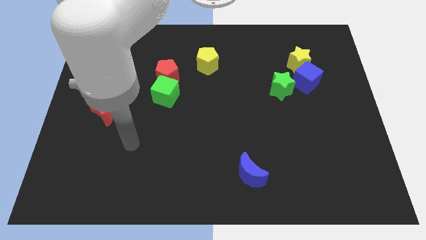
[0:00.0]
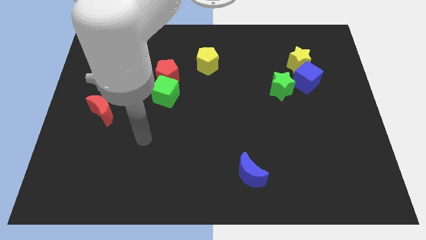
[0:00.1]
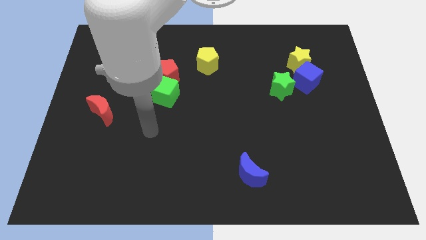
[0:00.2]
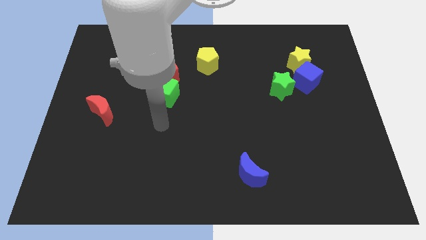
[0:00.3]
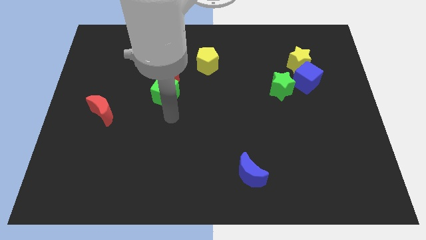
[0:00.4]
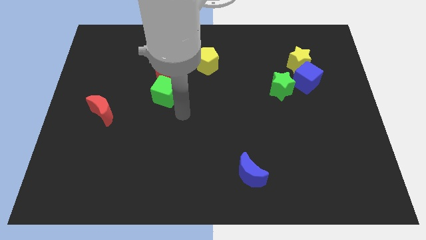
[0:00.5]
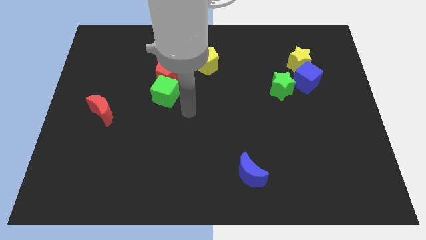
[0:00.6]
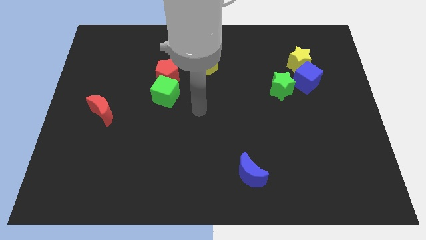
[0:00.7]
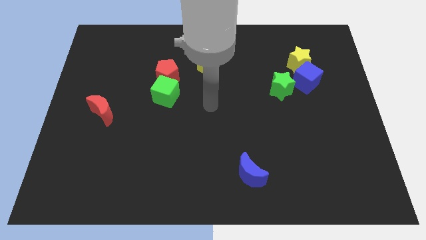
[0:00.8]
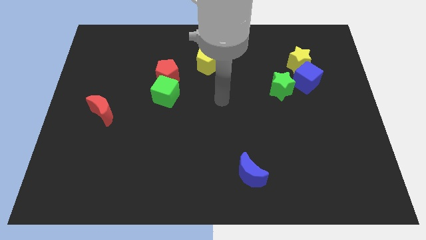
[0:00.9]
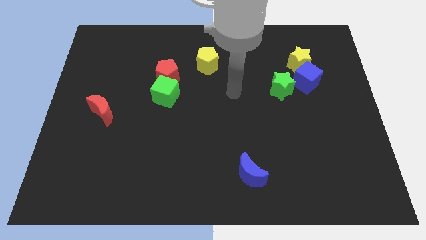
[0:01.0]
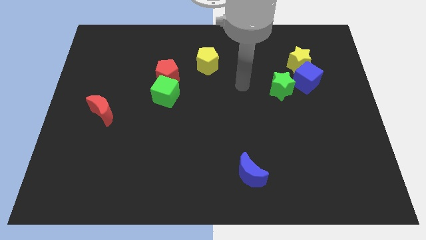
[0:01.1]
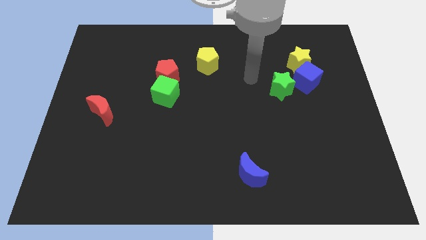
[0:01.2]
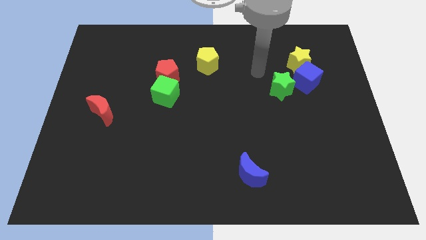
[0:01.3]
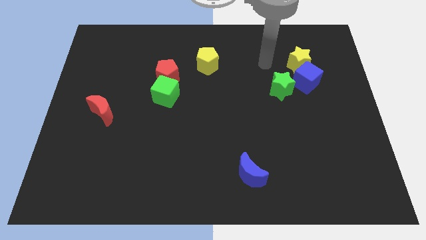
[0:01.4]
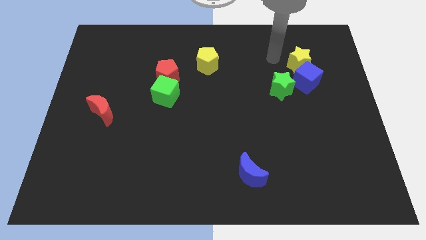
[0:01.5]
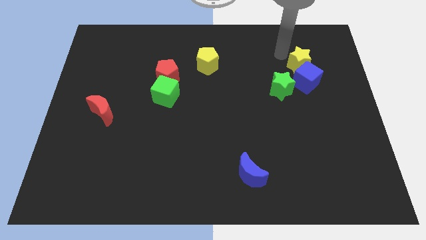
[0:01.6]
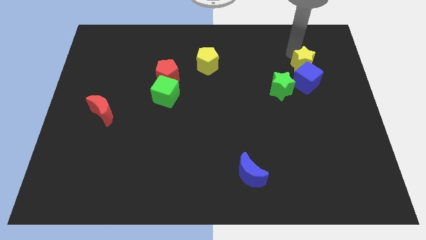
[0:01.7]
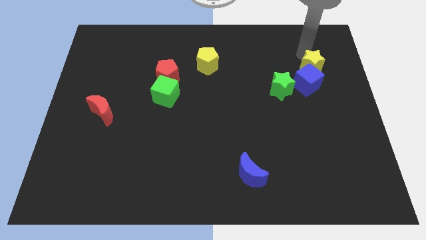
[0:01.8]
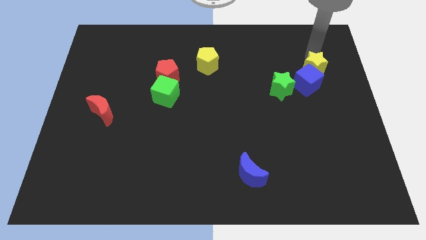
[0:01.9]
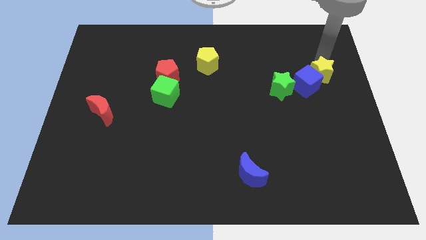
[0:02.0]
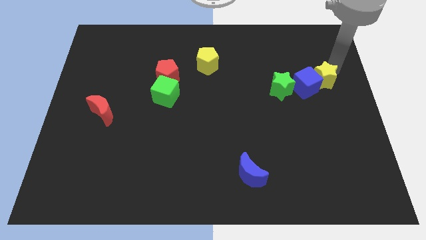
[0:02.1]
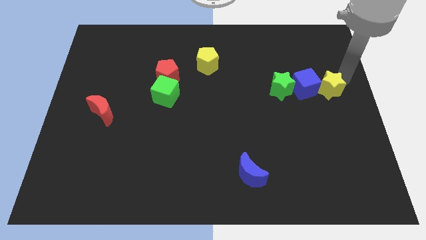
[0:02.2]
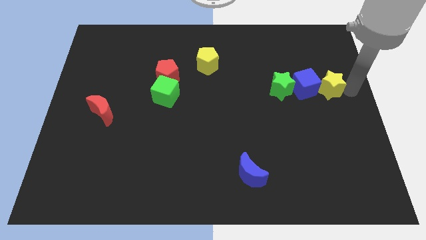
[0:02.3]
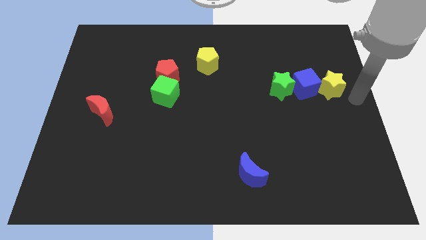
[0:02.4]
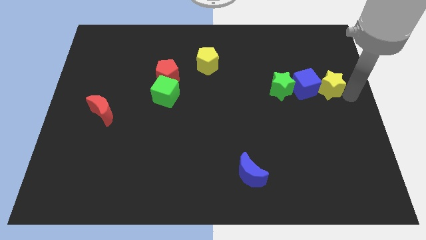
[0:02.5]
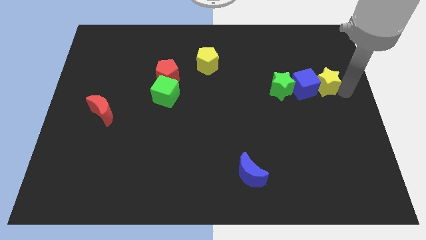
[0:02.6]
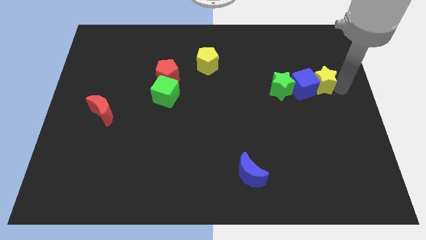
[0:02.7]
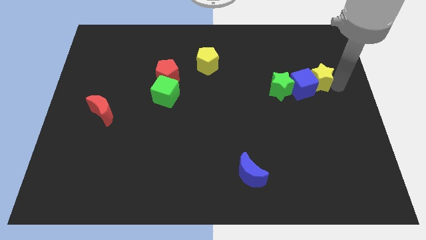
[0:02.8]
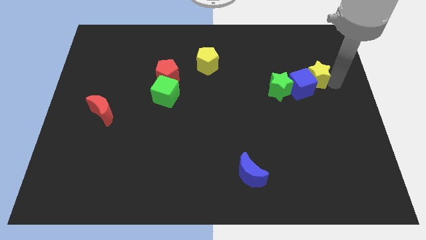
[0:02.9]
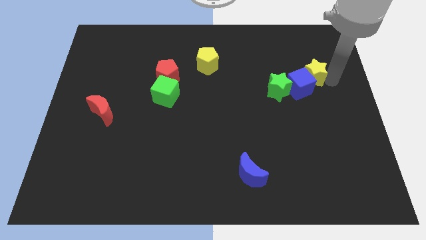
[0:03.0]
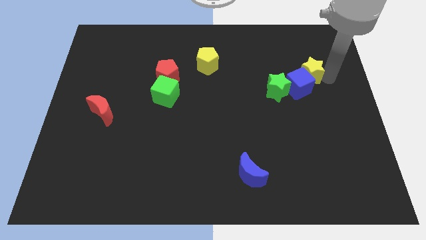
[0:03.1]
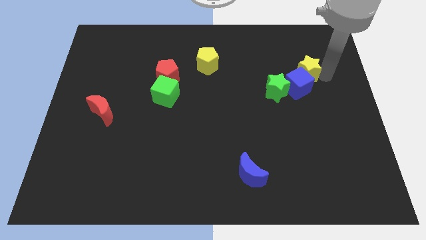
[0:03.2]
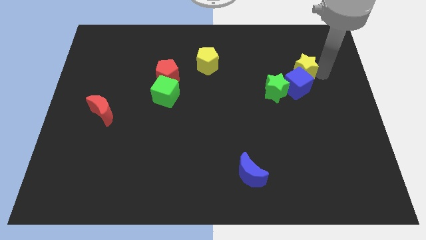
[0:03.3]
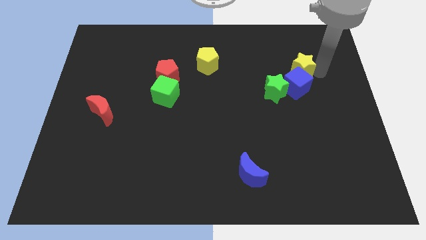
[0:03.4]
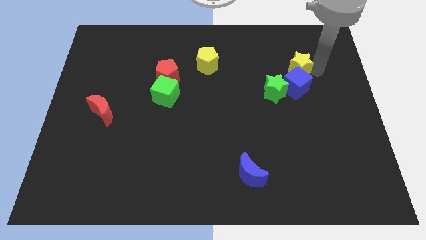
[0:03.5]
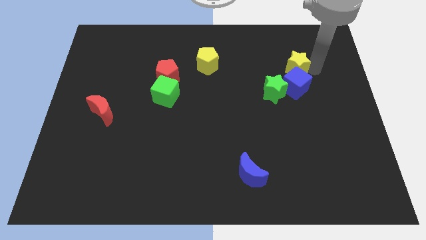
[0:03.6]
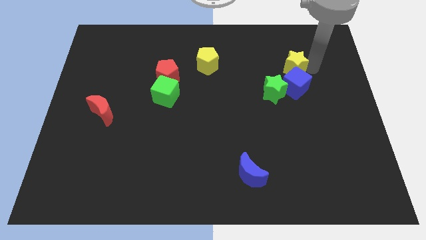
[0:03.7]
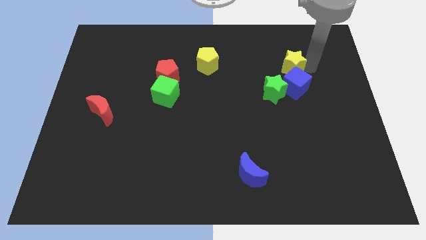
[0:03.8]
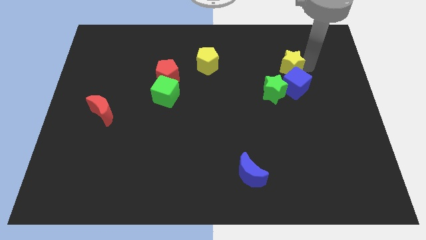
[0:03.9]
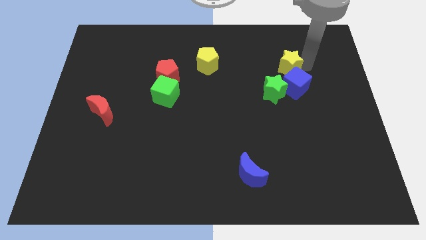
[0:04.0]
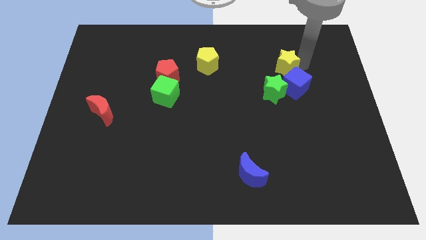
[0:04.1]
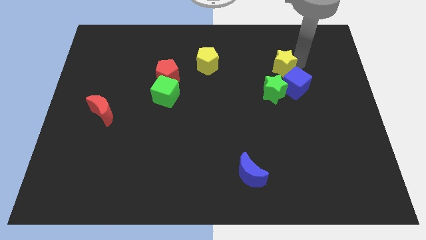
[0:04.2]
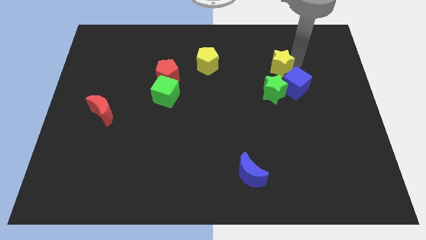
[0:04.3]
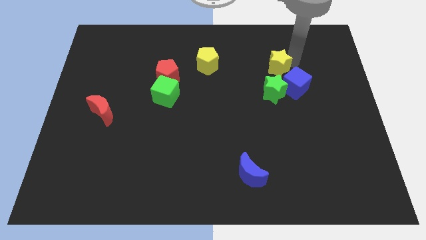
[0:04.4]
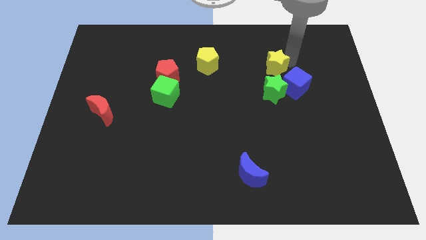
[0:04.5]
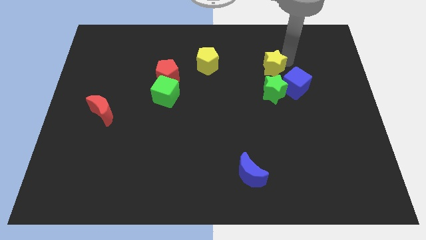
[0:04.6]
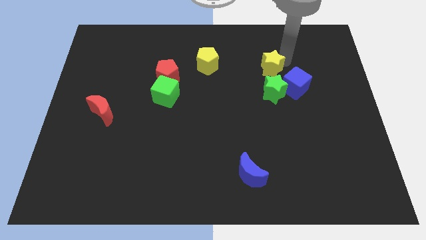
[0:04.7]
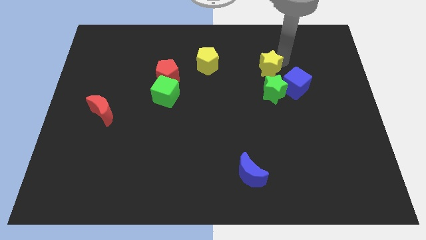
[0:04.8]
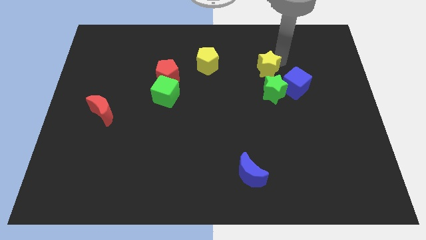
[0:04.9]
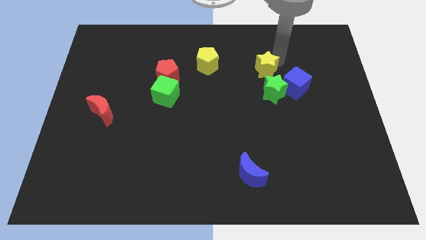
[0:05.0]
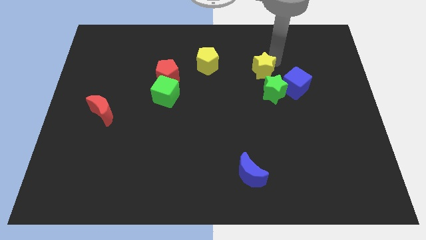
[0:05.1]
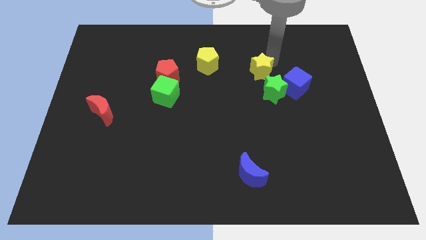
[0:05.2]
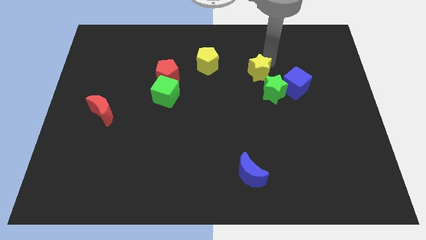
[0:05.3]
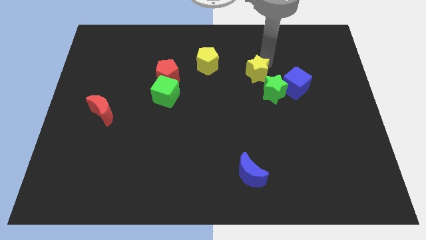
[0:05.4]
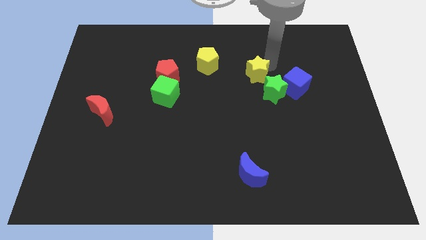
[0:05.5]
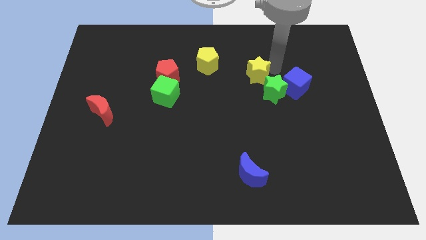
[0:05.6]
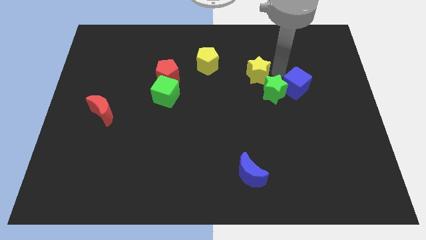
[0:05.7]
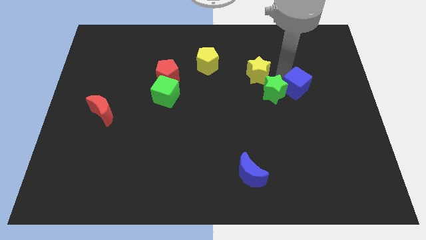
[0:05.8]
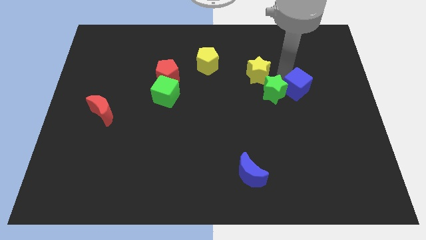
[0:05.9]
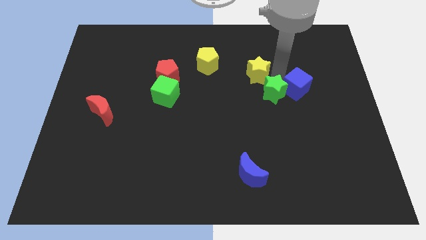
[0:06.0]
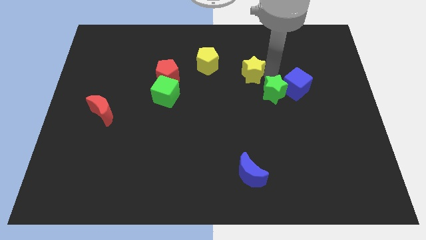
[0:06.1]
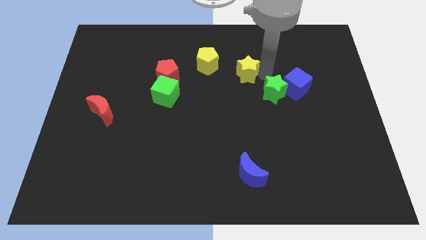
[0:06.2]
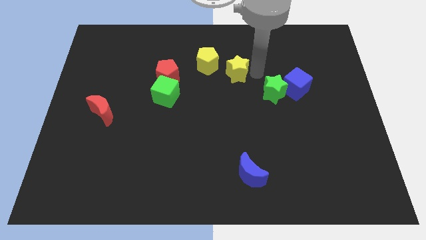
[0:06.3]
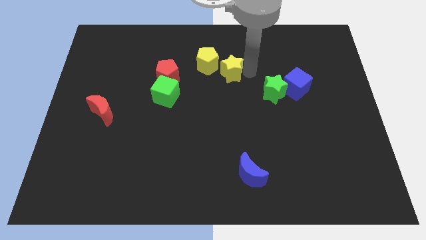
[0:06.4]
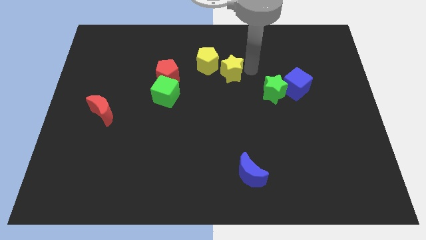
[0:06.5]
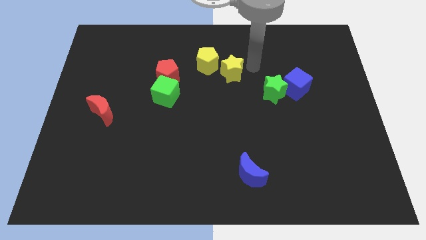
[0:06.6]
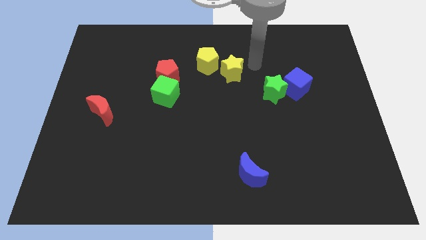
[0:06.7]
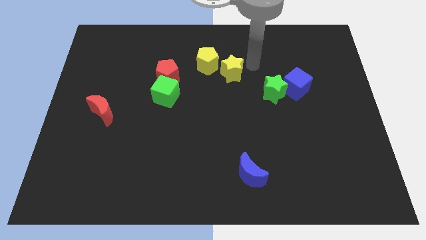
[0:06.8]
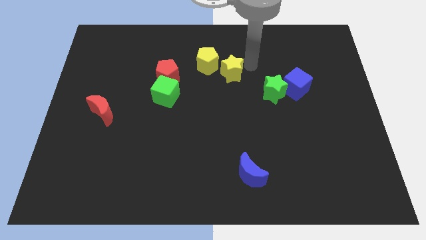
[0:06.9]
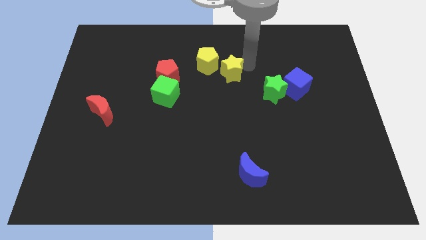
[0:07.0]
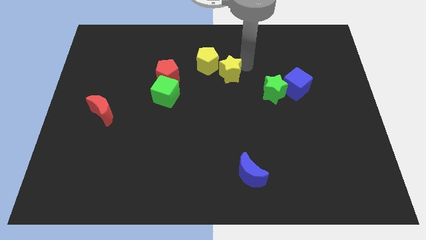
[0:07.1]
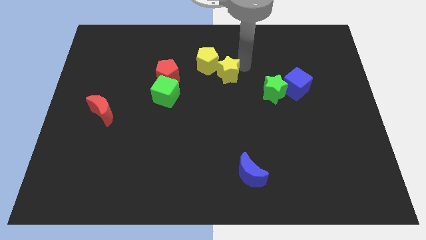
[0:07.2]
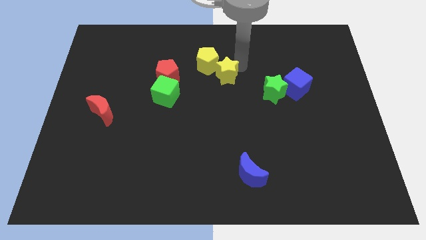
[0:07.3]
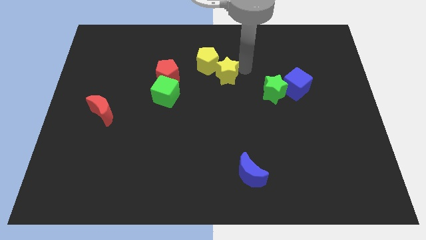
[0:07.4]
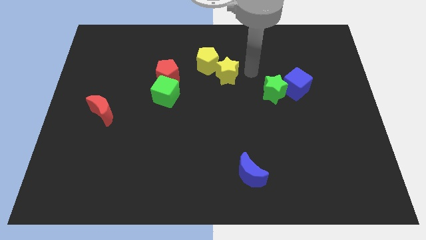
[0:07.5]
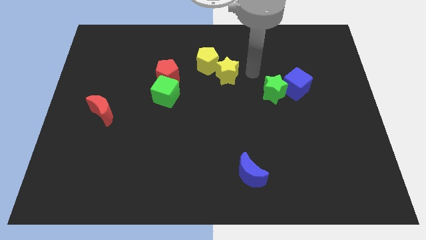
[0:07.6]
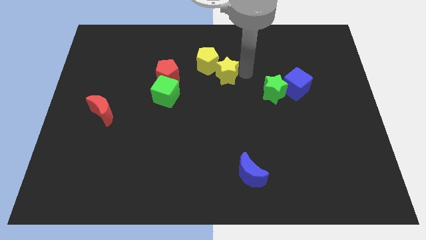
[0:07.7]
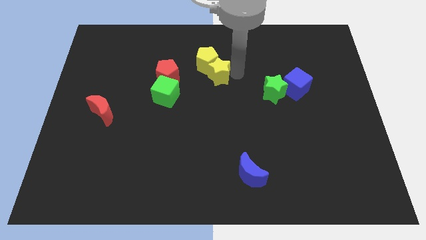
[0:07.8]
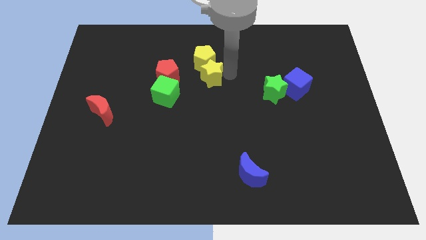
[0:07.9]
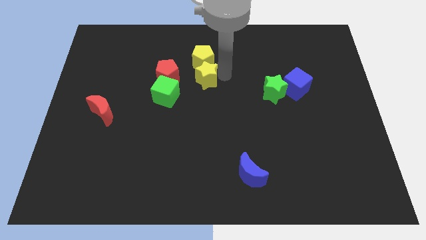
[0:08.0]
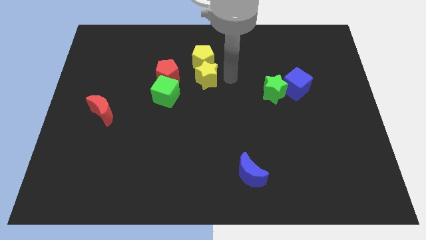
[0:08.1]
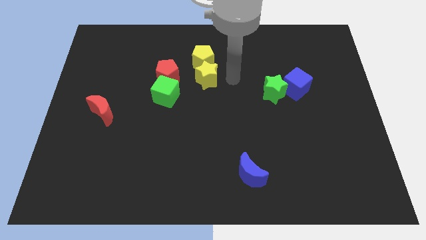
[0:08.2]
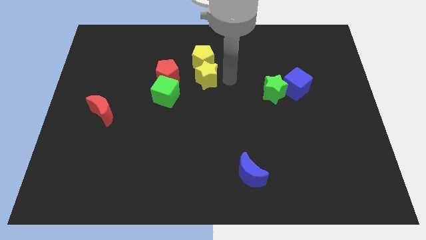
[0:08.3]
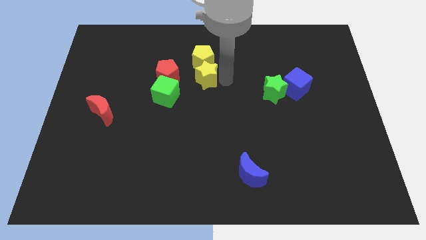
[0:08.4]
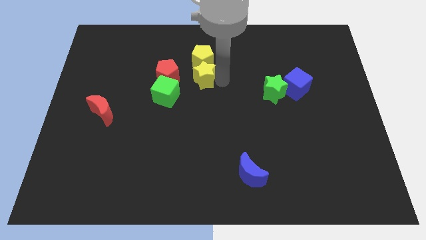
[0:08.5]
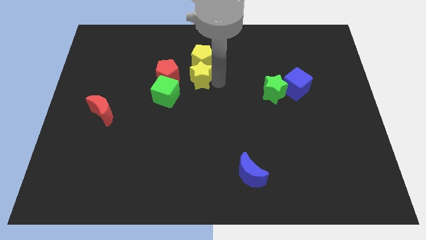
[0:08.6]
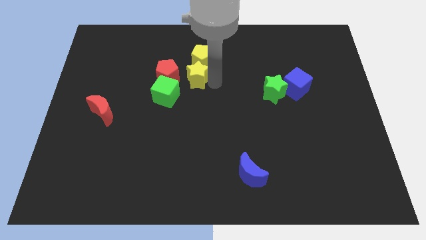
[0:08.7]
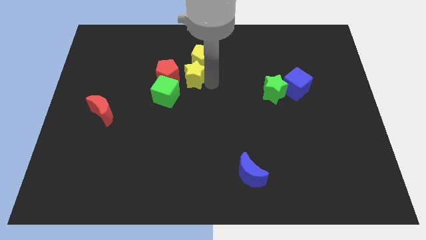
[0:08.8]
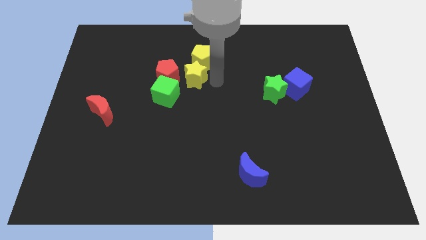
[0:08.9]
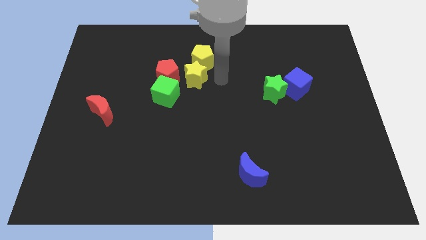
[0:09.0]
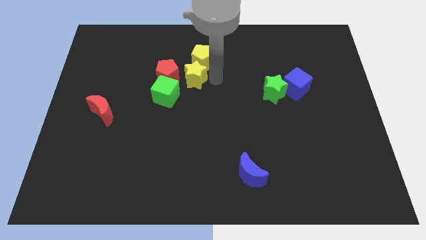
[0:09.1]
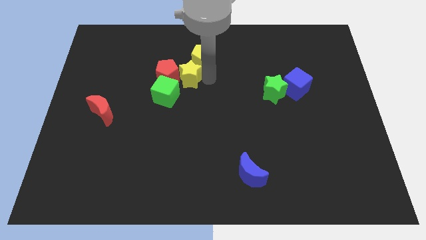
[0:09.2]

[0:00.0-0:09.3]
push the yellow star towards the red pentagon
